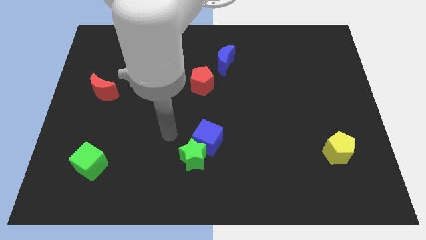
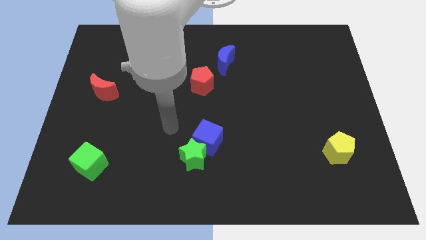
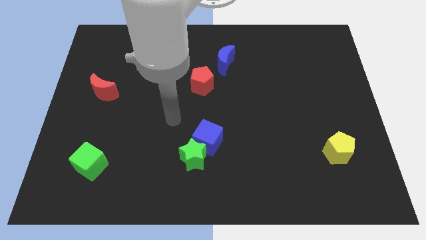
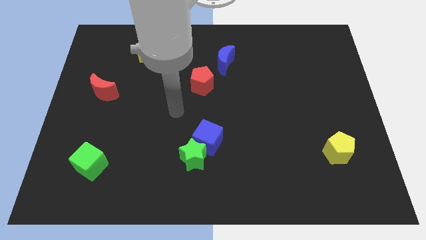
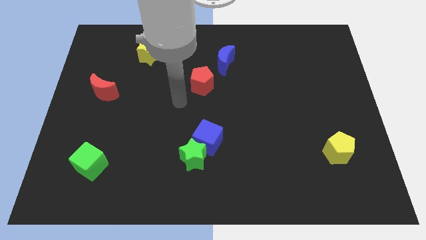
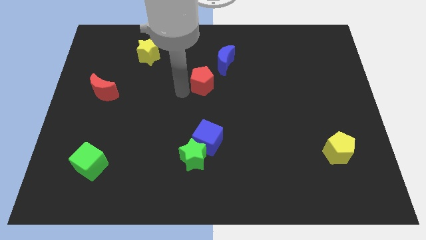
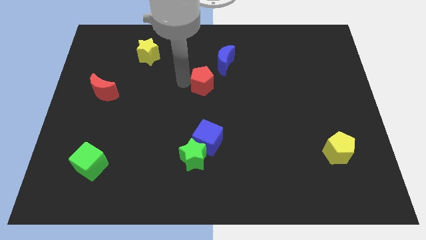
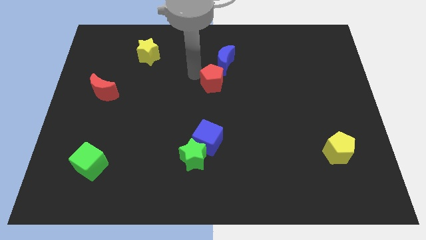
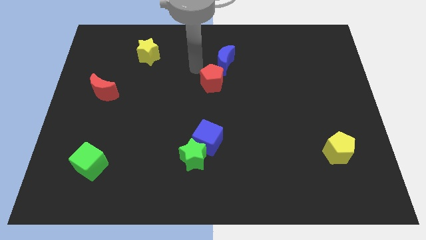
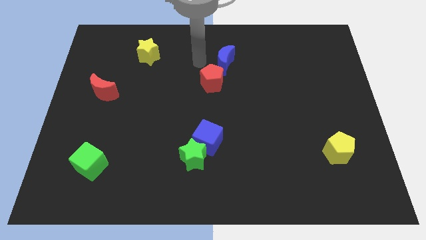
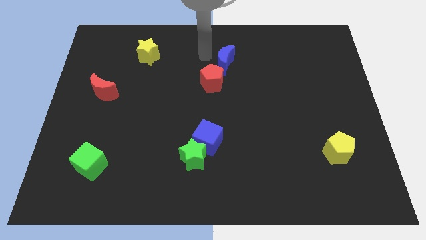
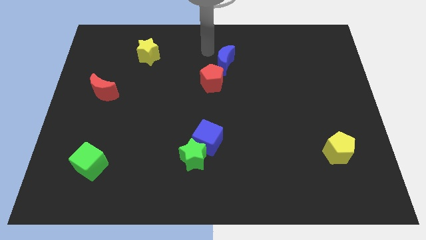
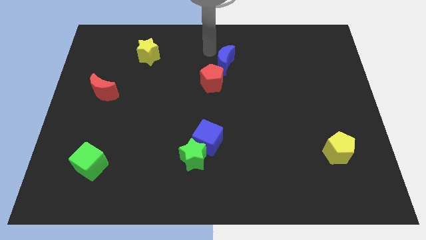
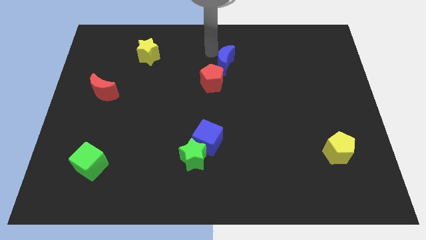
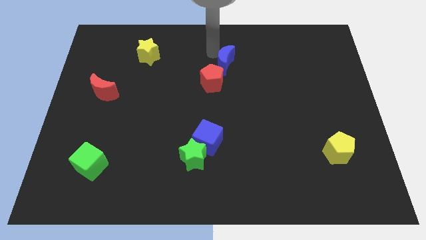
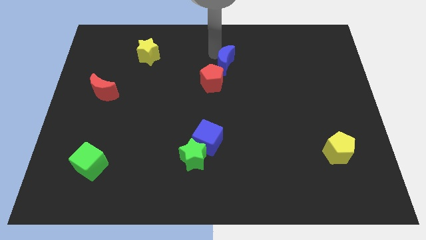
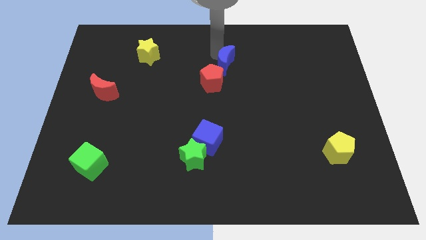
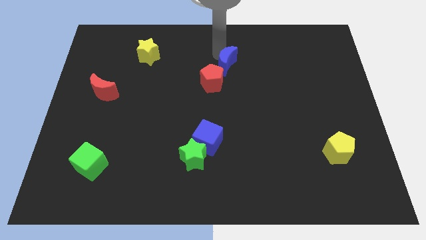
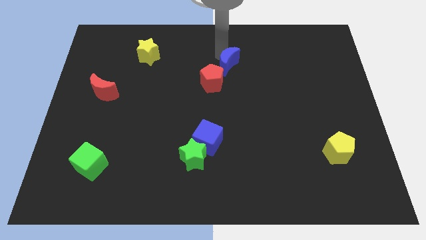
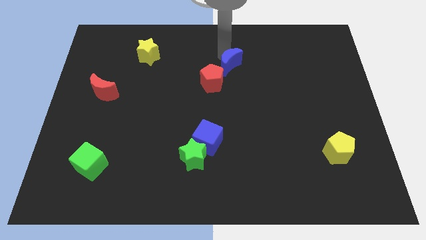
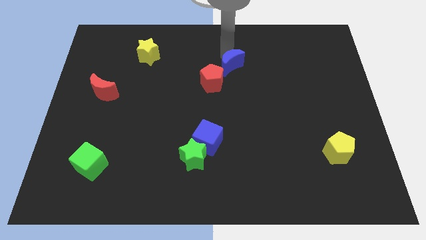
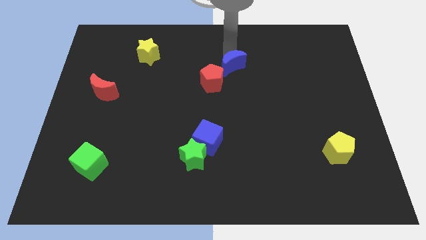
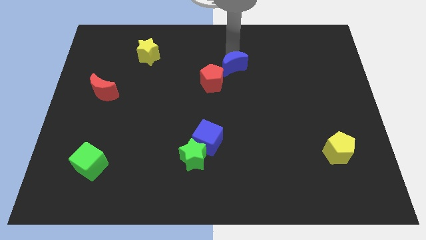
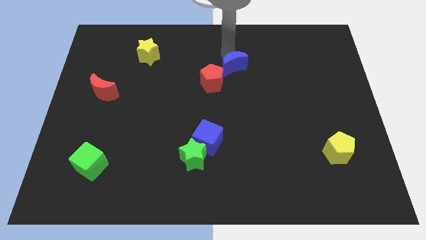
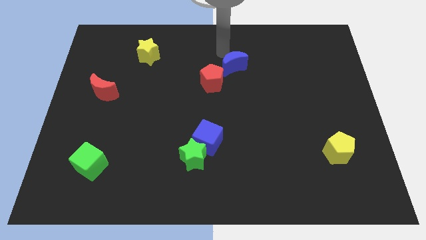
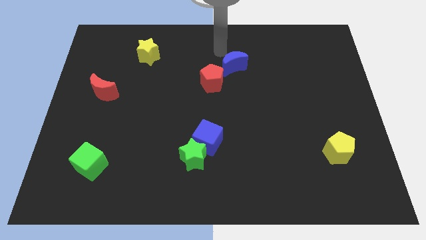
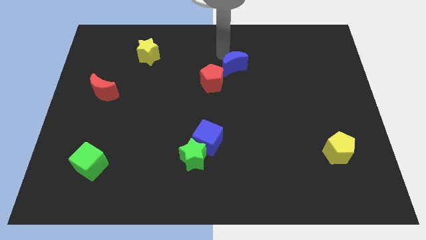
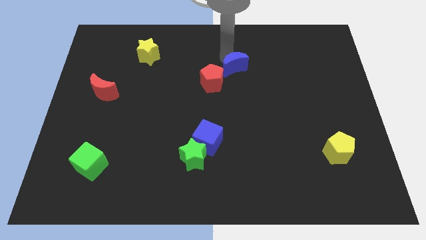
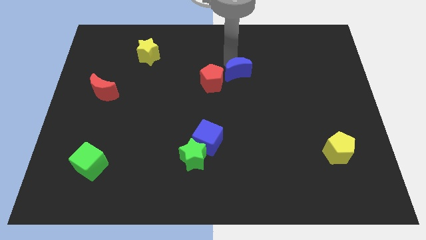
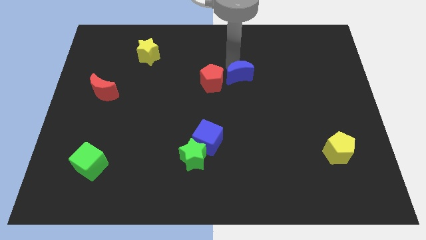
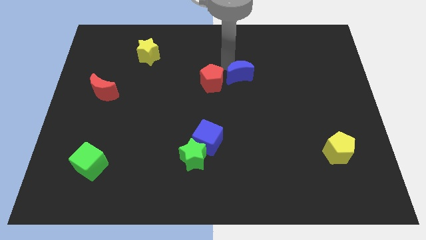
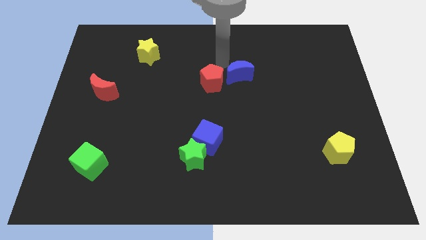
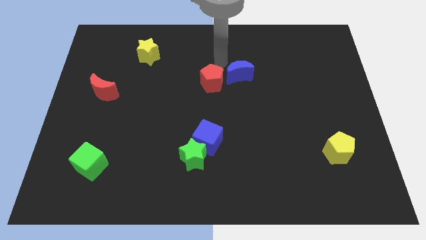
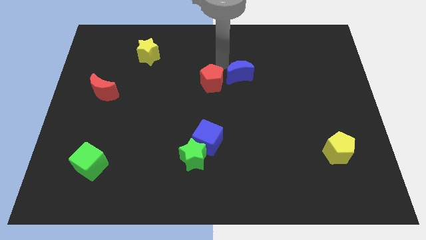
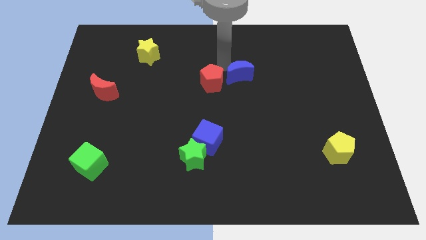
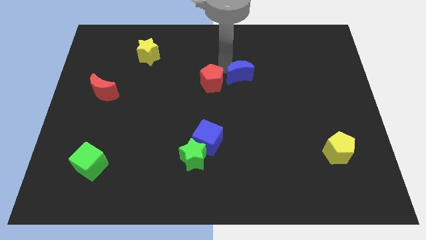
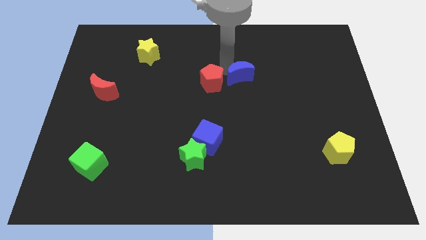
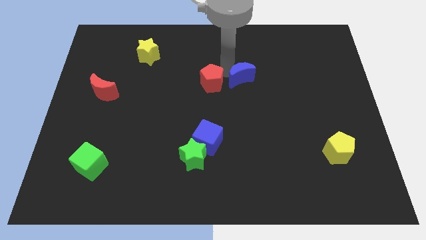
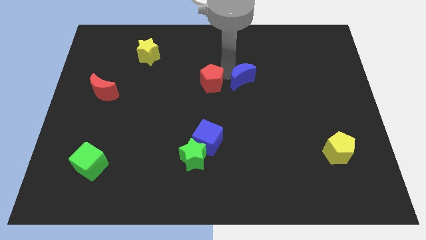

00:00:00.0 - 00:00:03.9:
move the blue moon diagonally downwards and to the right somewhat

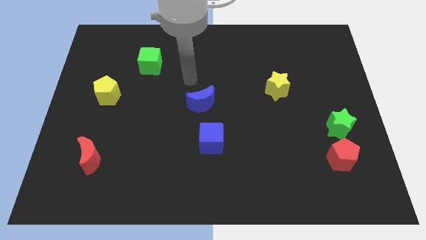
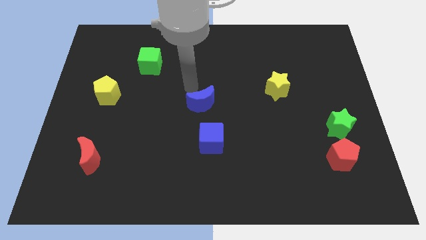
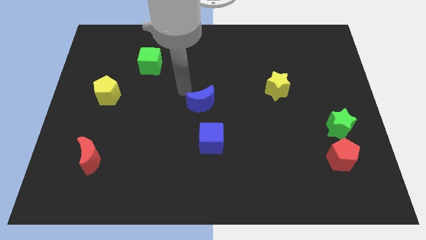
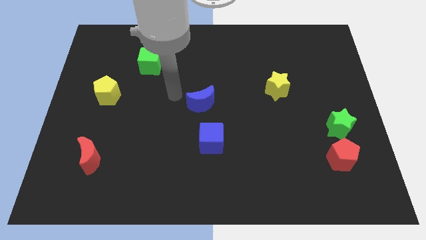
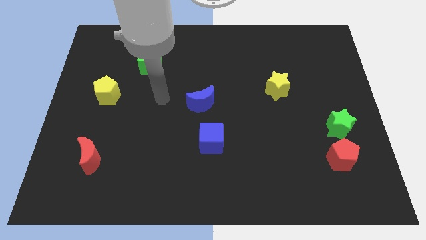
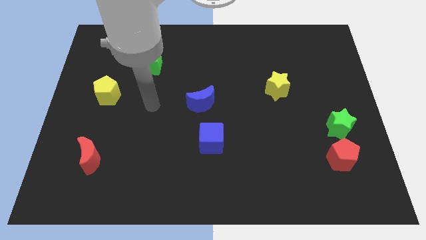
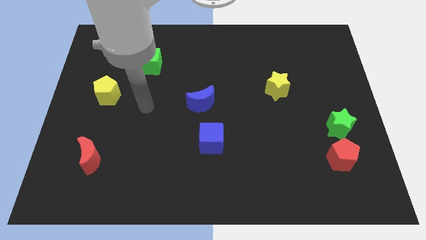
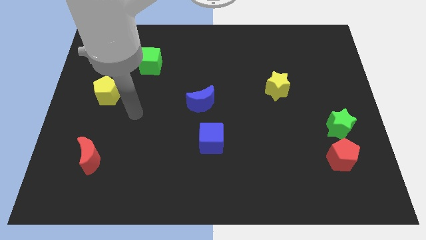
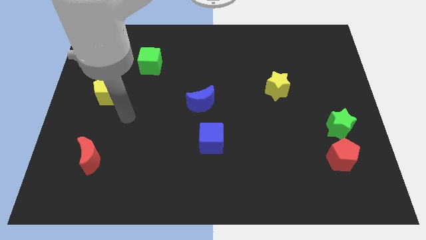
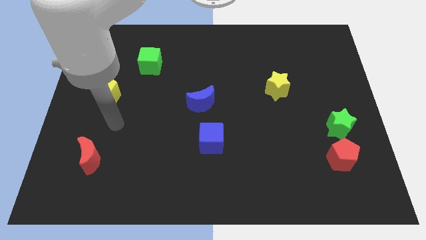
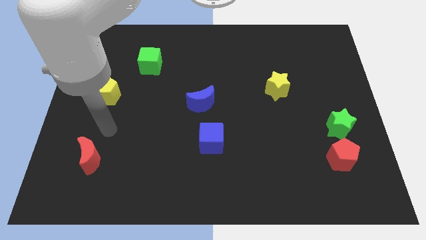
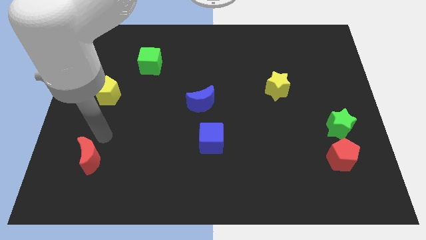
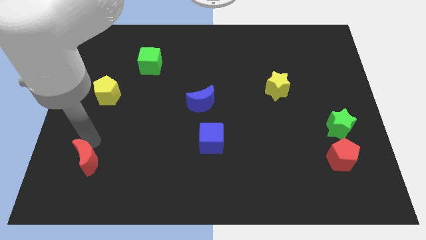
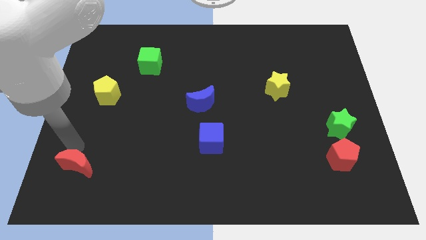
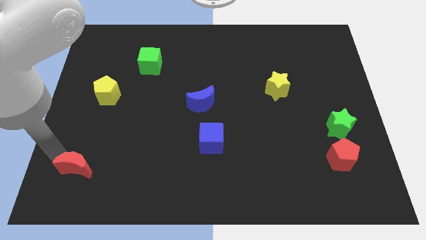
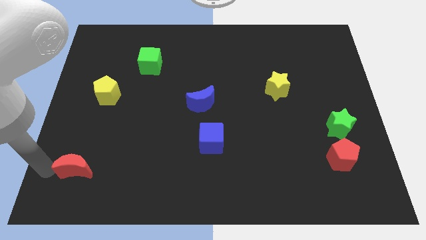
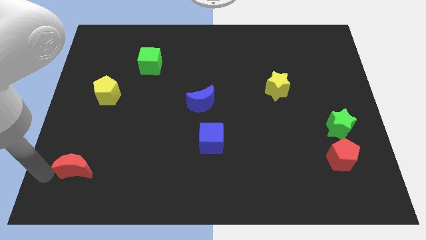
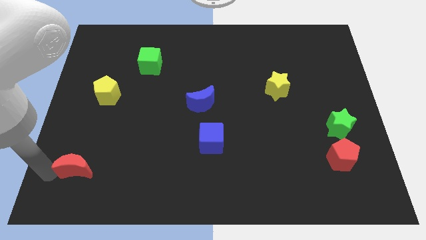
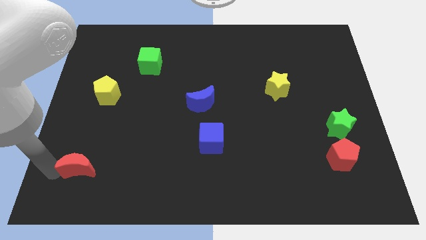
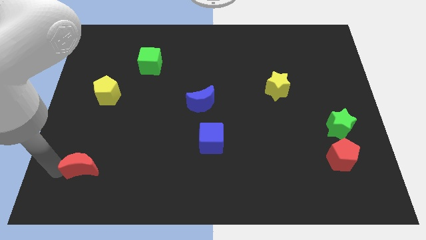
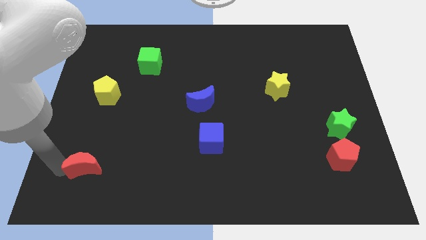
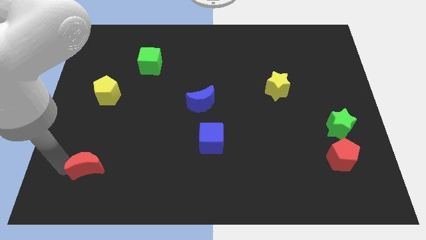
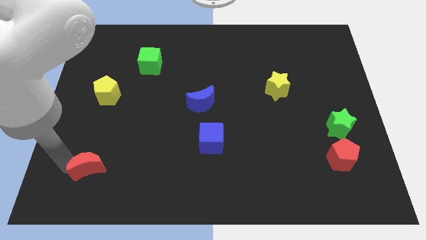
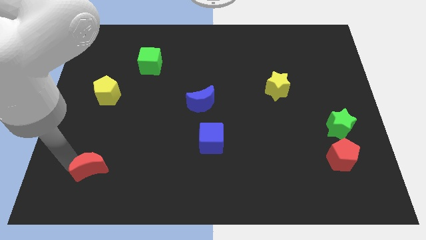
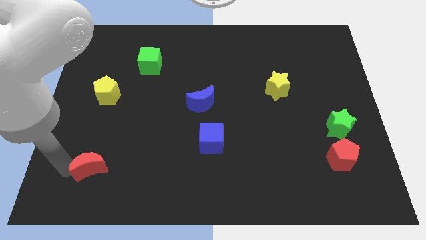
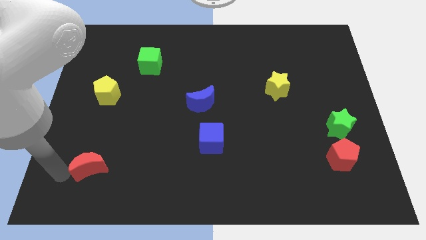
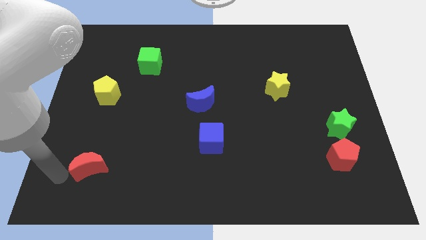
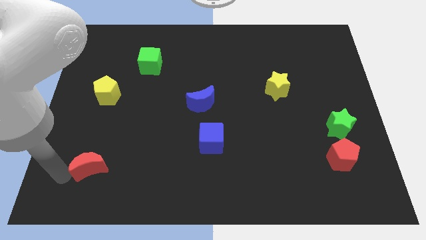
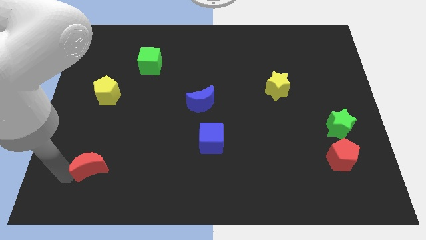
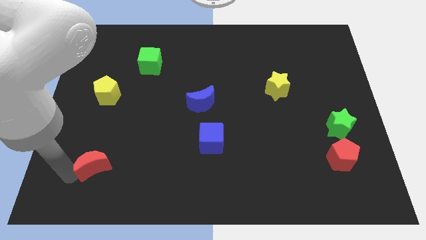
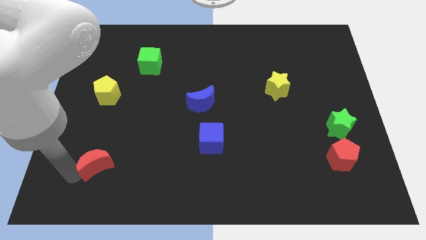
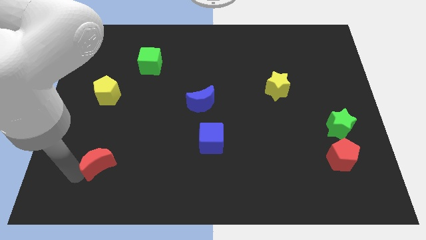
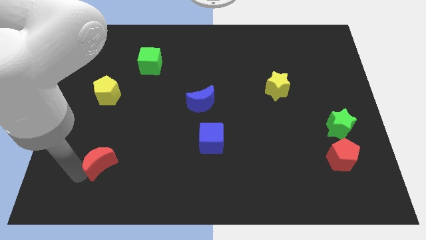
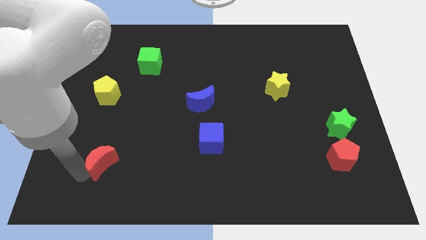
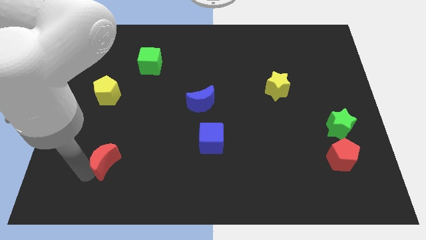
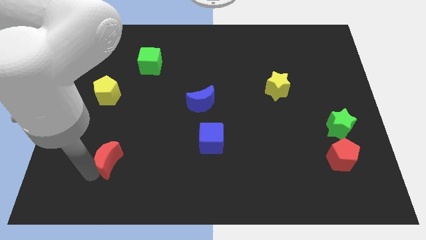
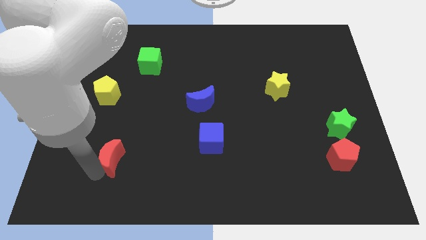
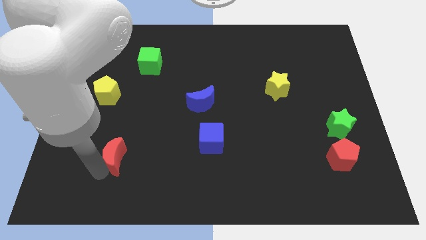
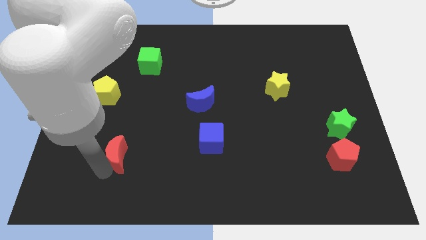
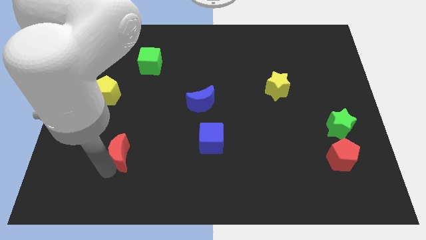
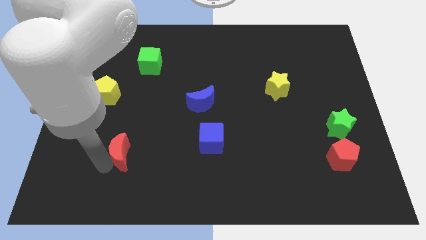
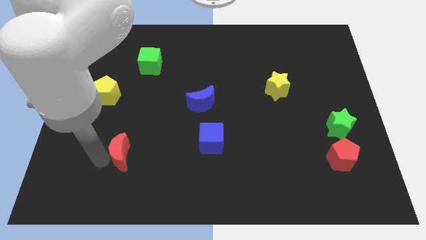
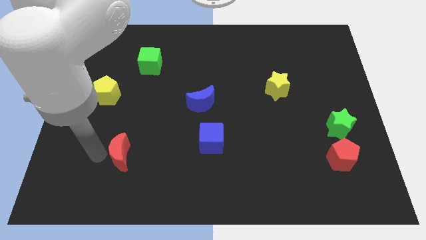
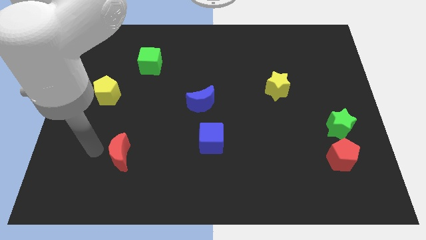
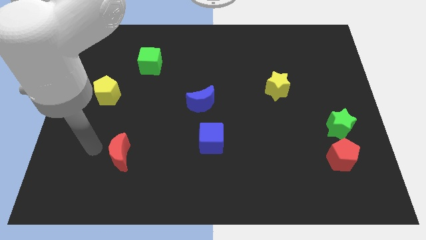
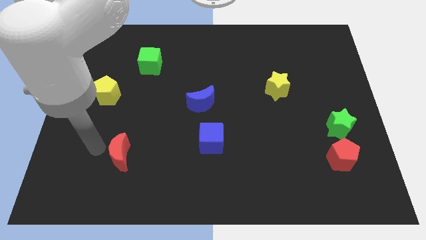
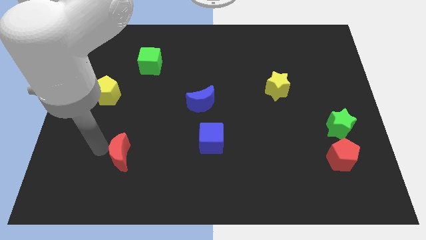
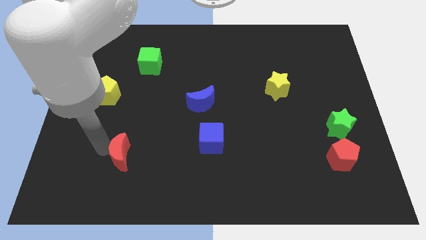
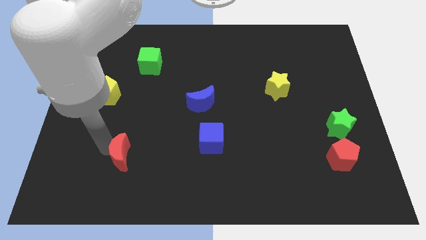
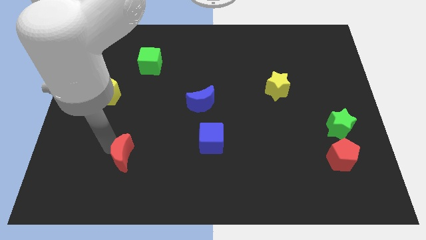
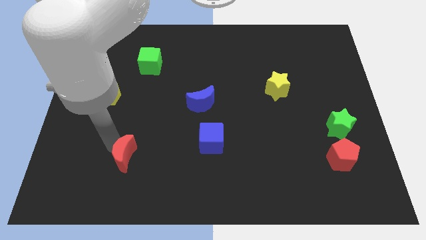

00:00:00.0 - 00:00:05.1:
move the red moon right a little
